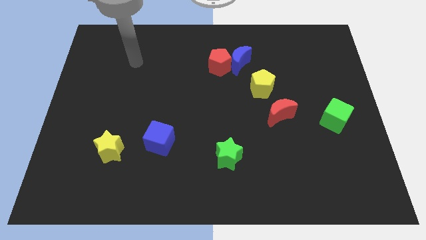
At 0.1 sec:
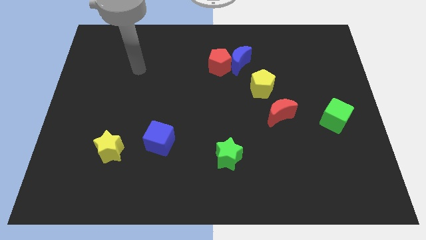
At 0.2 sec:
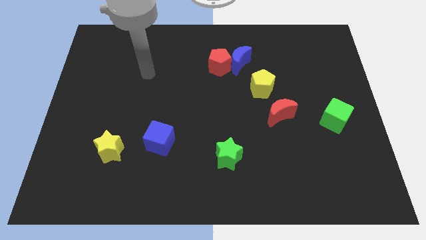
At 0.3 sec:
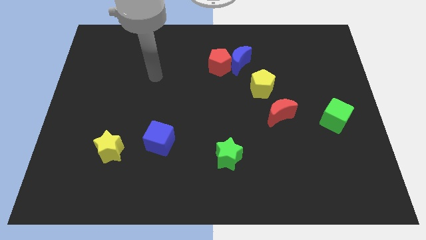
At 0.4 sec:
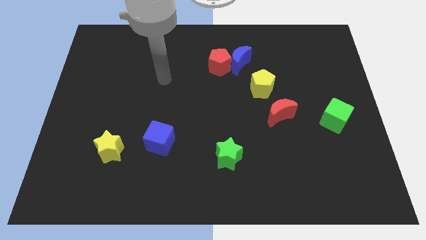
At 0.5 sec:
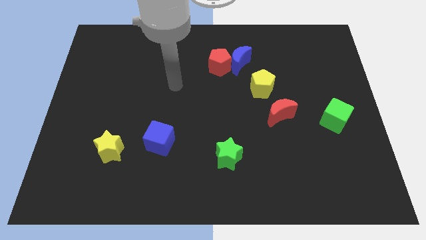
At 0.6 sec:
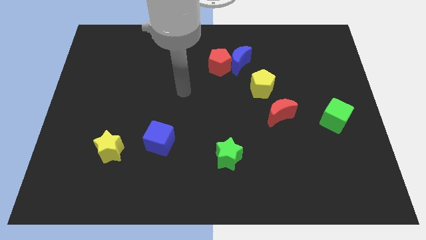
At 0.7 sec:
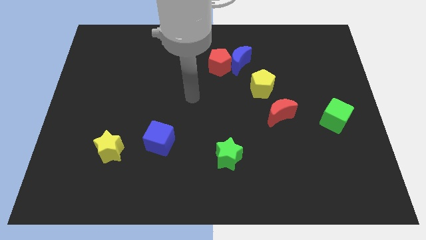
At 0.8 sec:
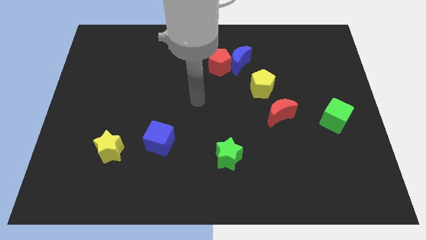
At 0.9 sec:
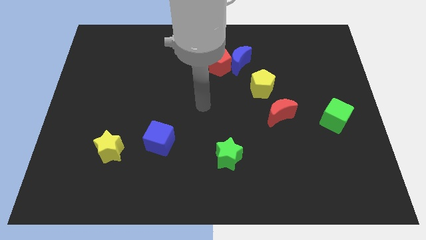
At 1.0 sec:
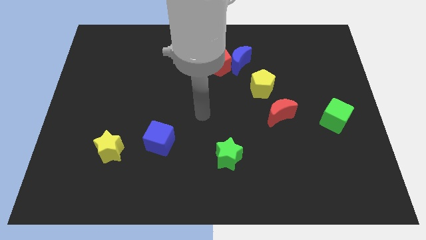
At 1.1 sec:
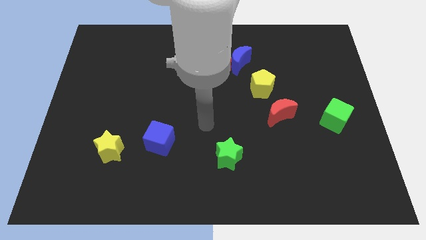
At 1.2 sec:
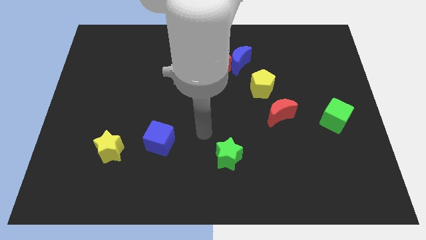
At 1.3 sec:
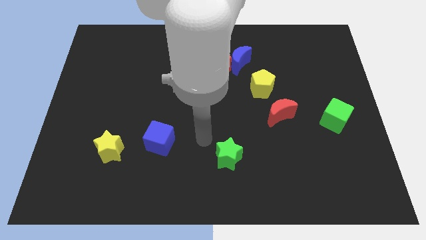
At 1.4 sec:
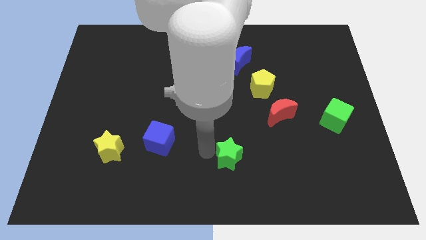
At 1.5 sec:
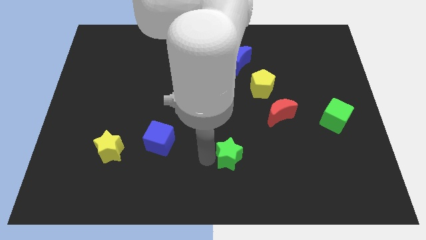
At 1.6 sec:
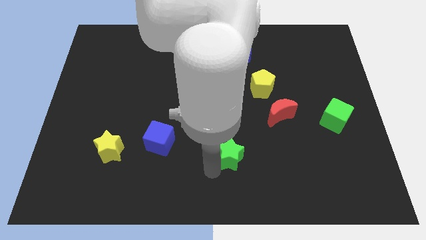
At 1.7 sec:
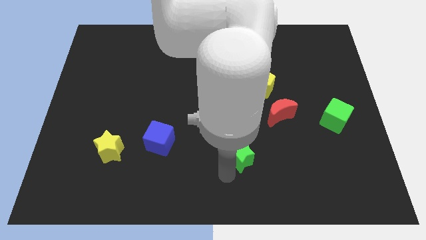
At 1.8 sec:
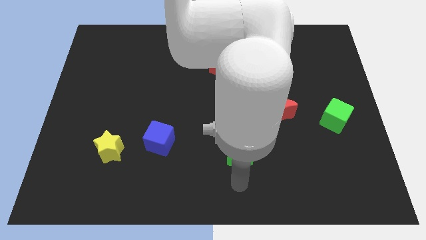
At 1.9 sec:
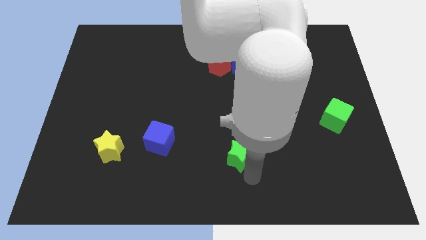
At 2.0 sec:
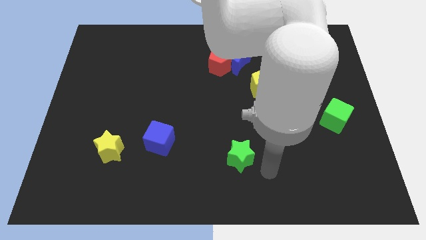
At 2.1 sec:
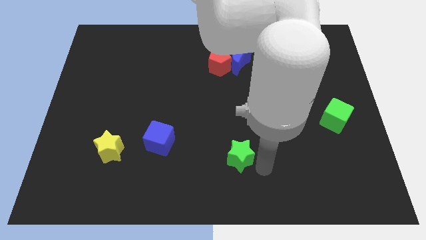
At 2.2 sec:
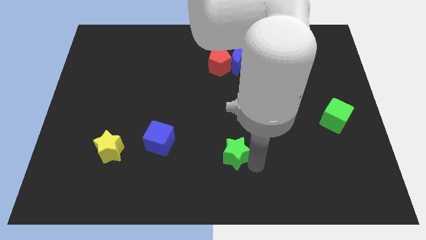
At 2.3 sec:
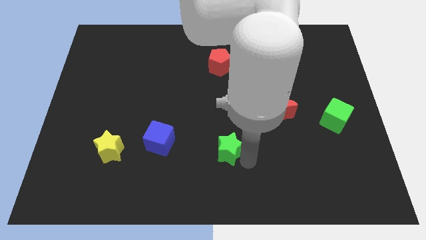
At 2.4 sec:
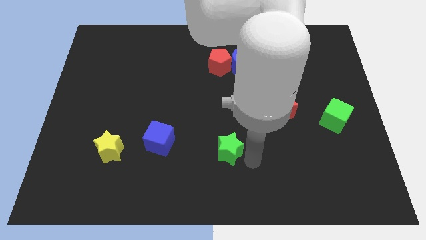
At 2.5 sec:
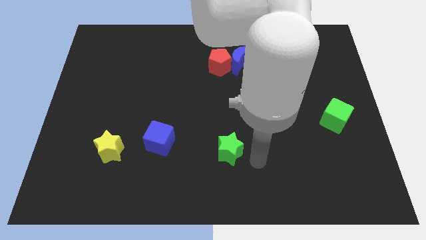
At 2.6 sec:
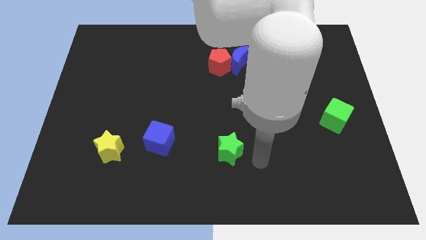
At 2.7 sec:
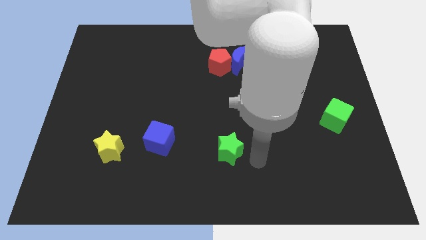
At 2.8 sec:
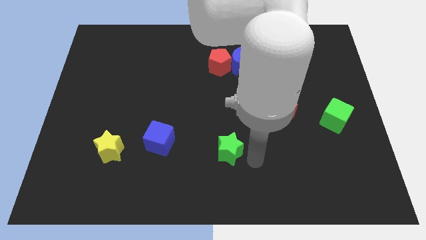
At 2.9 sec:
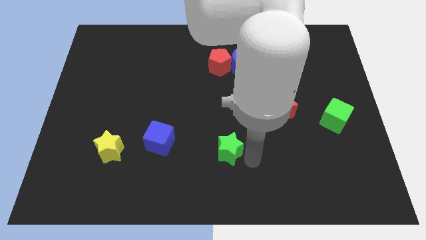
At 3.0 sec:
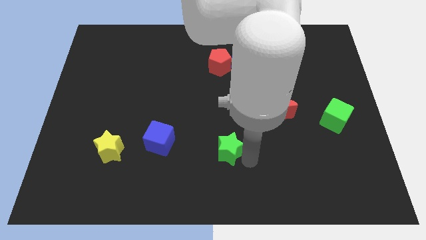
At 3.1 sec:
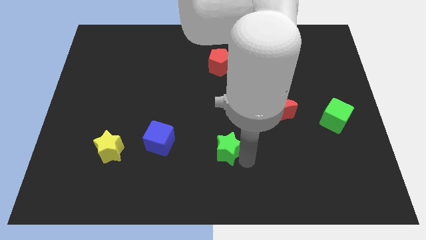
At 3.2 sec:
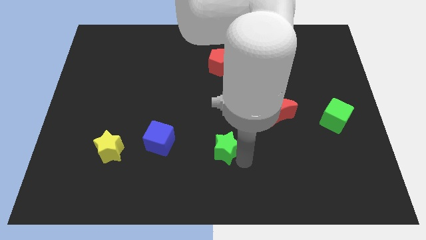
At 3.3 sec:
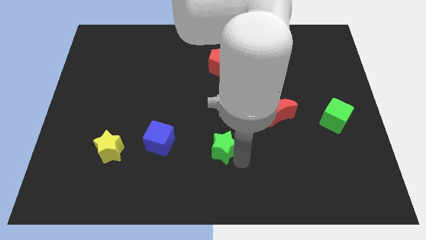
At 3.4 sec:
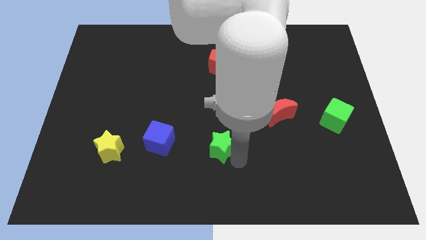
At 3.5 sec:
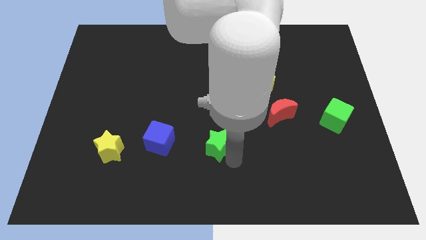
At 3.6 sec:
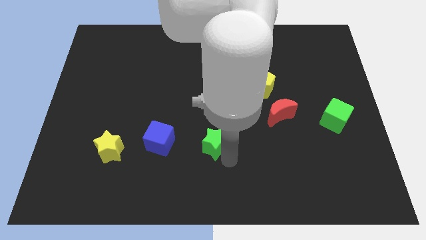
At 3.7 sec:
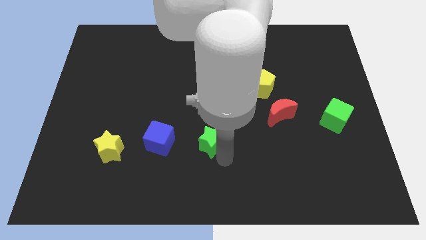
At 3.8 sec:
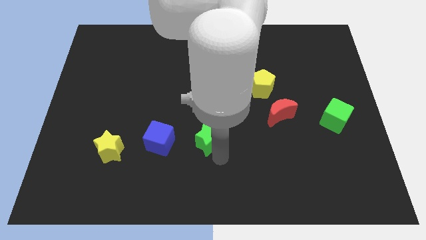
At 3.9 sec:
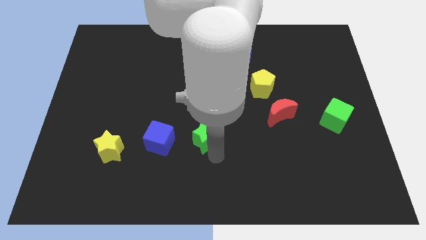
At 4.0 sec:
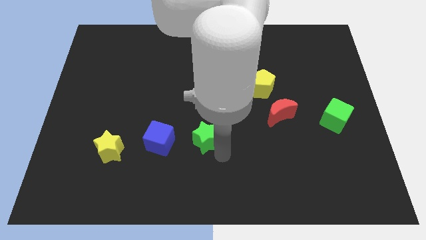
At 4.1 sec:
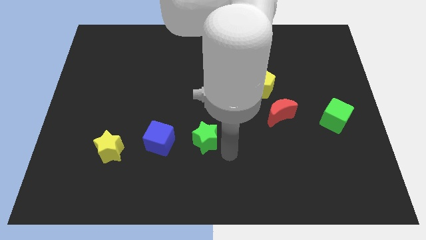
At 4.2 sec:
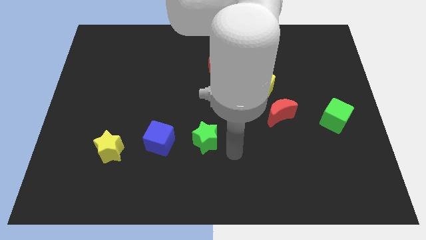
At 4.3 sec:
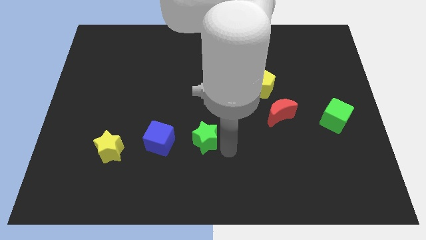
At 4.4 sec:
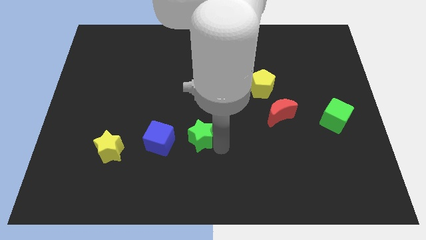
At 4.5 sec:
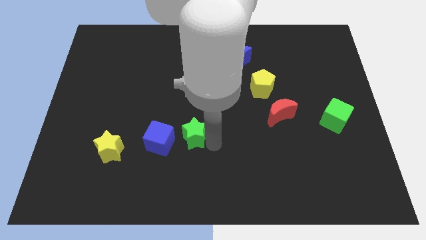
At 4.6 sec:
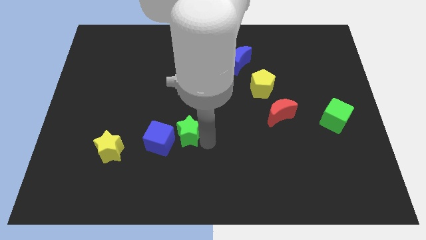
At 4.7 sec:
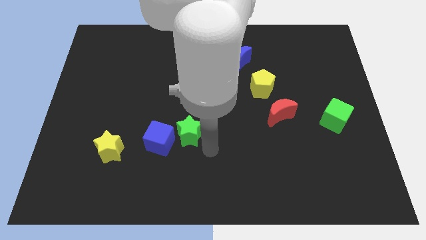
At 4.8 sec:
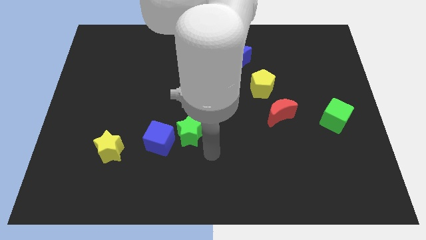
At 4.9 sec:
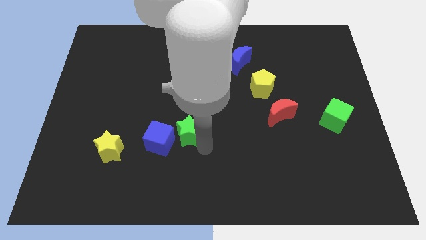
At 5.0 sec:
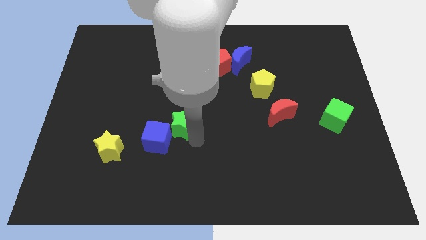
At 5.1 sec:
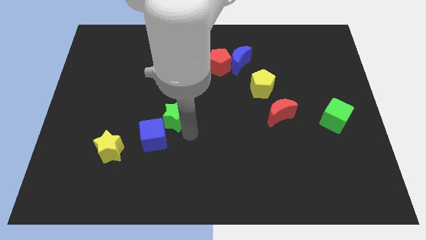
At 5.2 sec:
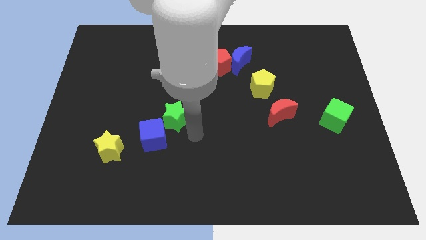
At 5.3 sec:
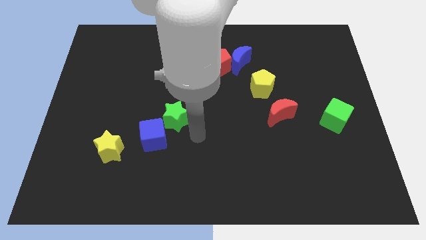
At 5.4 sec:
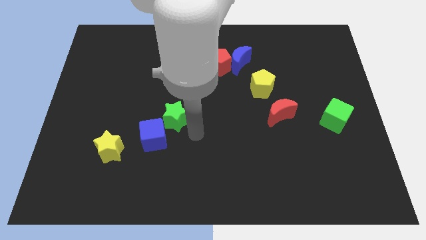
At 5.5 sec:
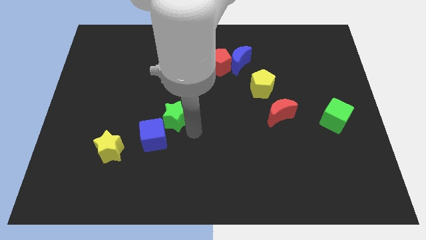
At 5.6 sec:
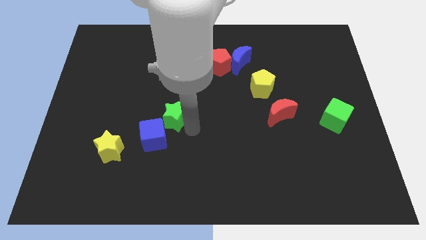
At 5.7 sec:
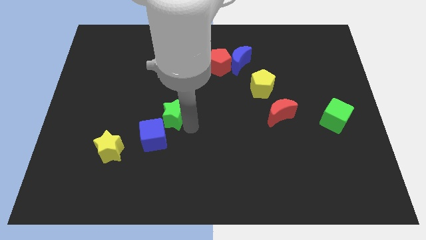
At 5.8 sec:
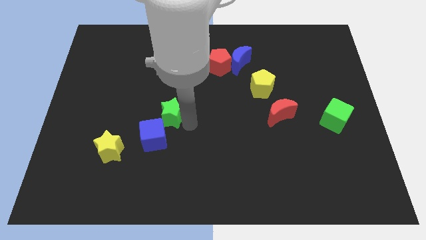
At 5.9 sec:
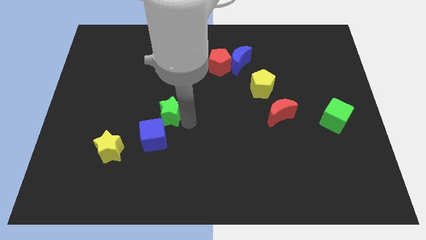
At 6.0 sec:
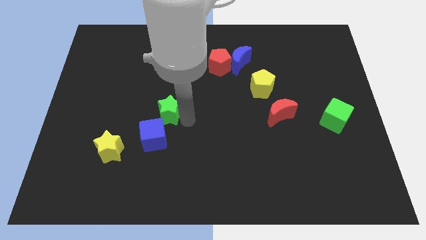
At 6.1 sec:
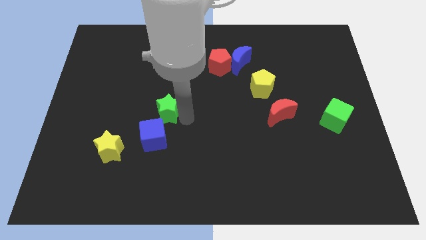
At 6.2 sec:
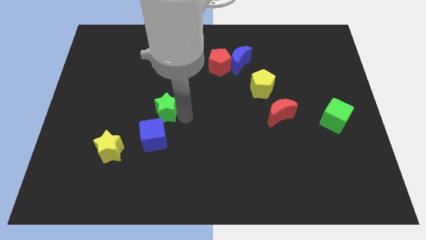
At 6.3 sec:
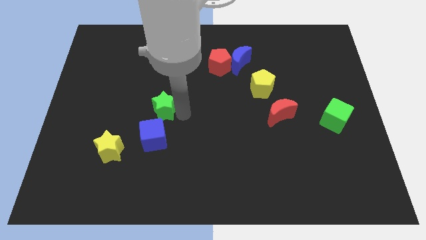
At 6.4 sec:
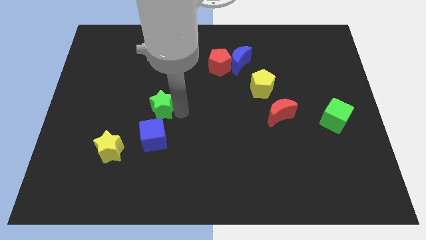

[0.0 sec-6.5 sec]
slide the green star upwards and then left

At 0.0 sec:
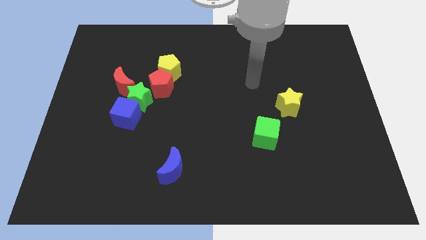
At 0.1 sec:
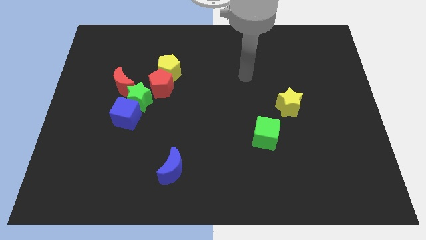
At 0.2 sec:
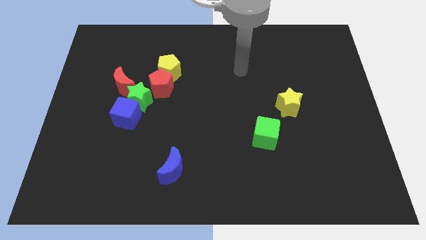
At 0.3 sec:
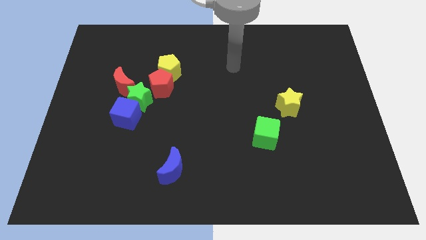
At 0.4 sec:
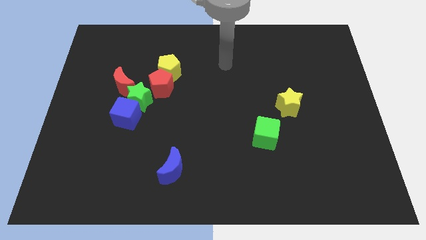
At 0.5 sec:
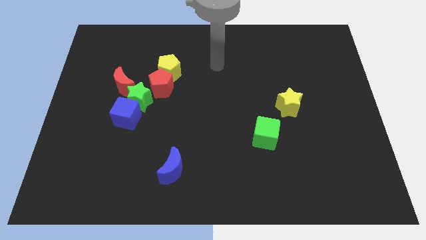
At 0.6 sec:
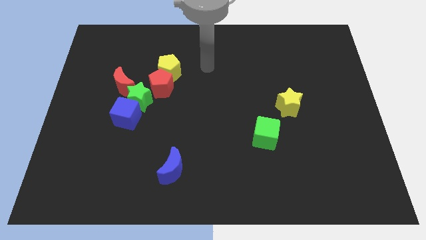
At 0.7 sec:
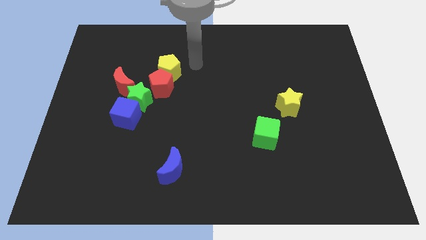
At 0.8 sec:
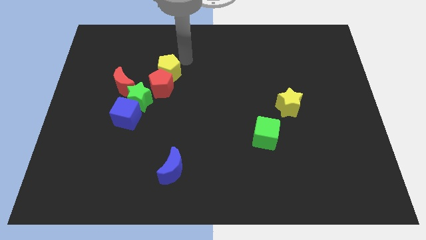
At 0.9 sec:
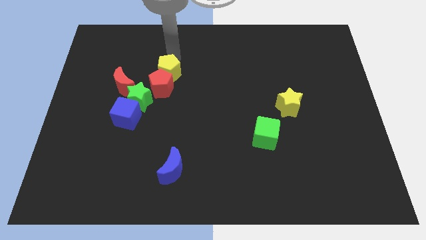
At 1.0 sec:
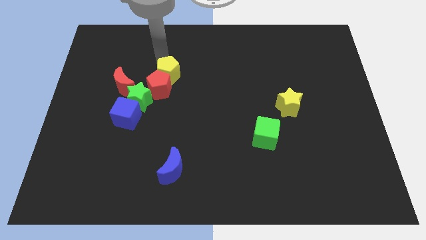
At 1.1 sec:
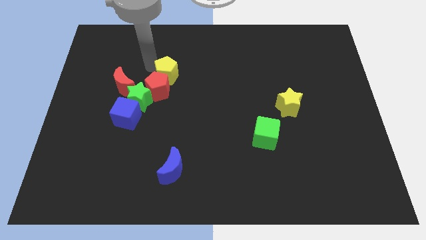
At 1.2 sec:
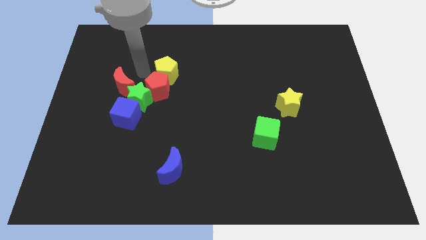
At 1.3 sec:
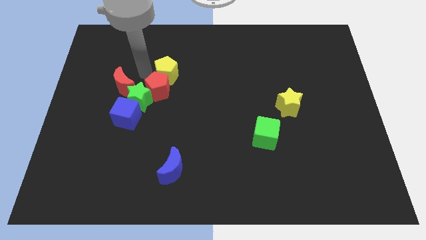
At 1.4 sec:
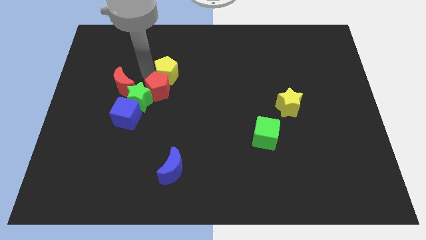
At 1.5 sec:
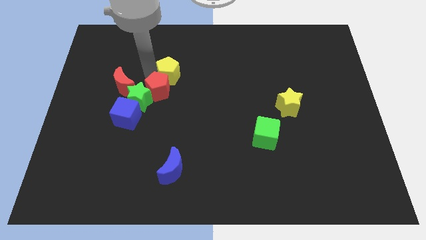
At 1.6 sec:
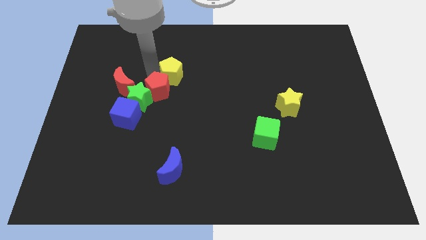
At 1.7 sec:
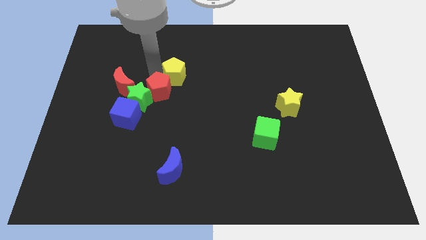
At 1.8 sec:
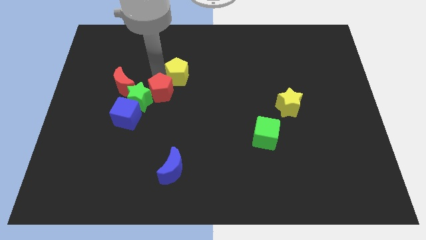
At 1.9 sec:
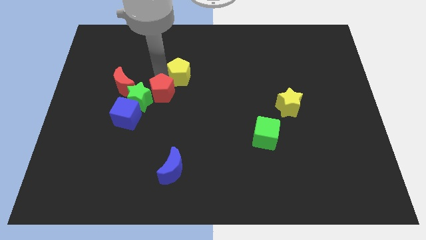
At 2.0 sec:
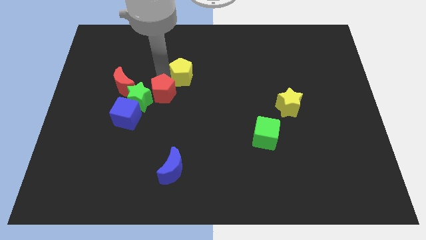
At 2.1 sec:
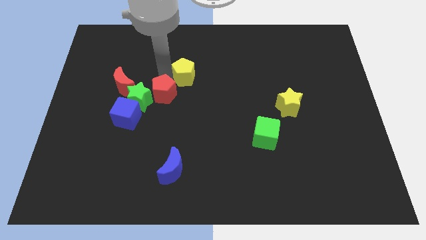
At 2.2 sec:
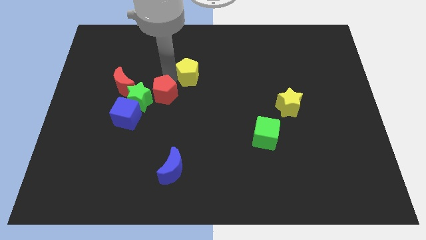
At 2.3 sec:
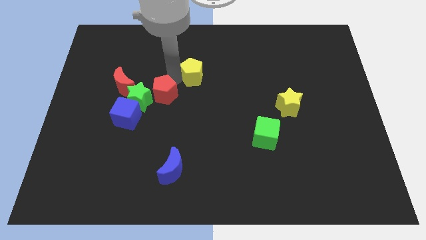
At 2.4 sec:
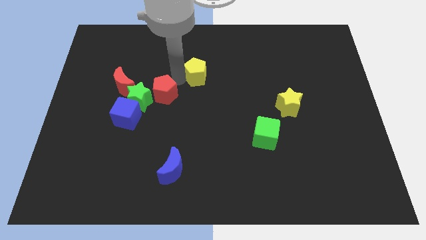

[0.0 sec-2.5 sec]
move the yellow pentagon to the right somewhat
